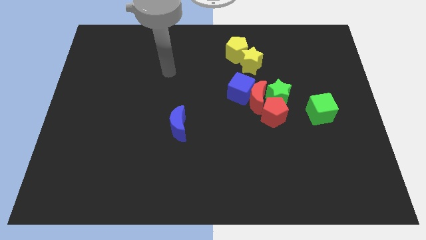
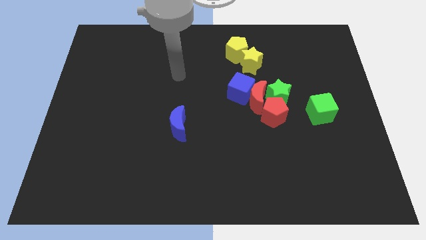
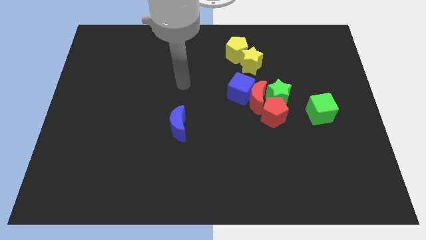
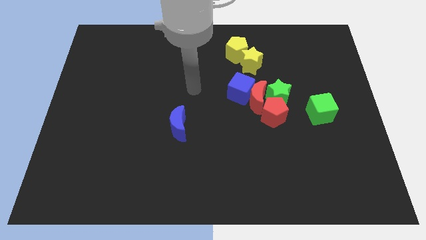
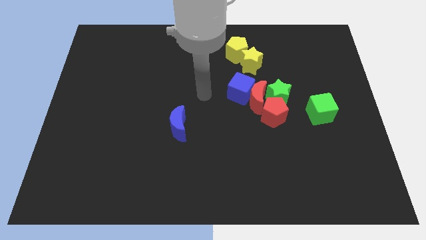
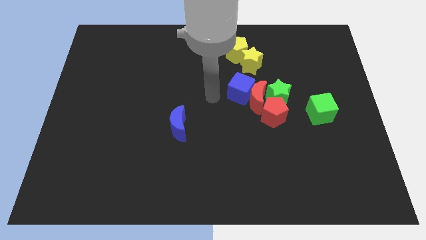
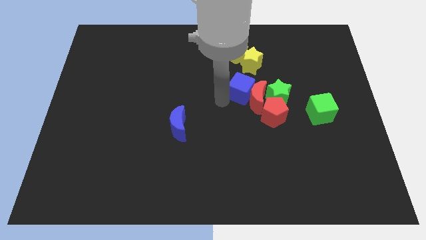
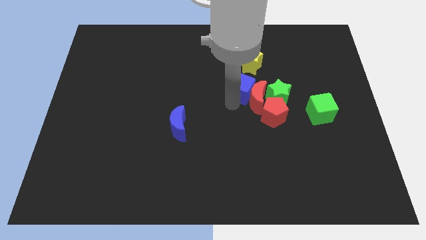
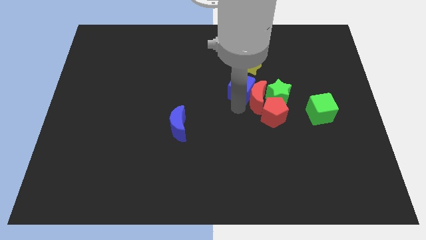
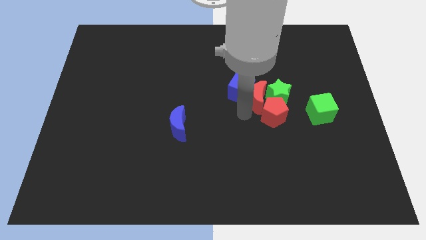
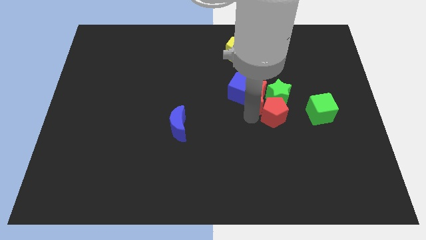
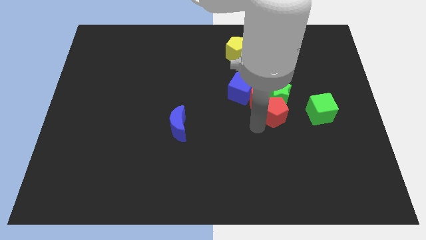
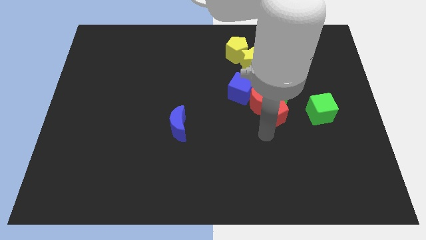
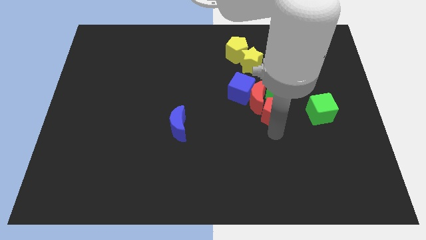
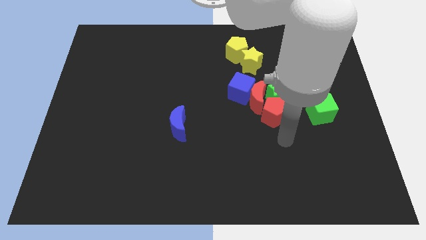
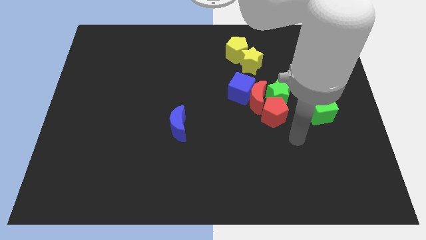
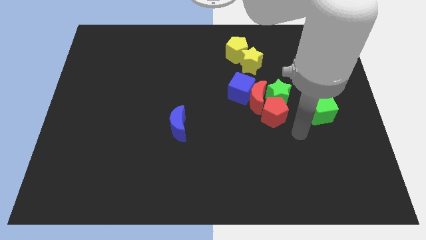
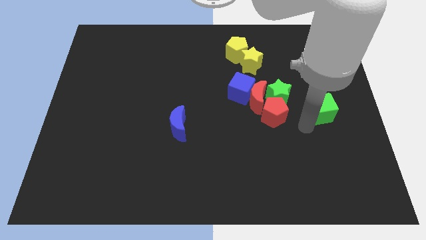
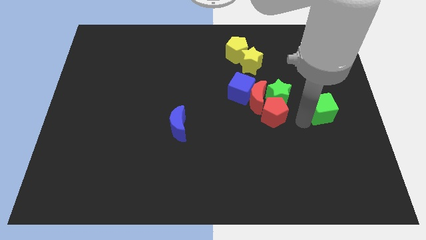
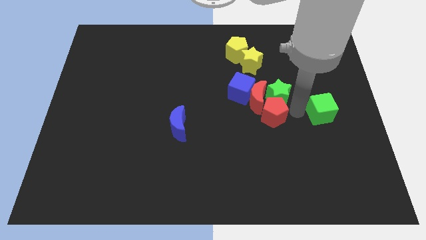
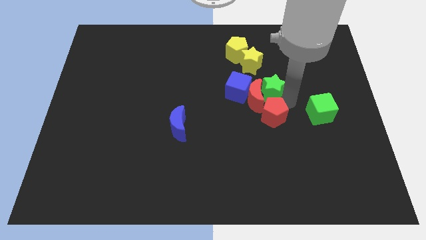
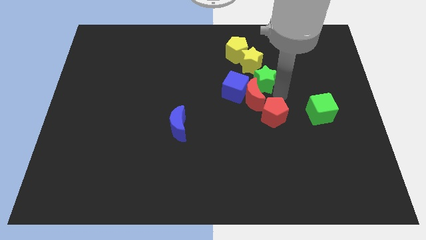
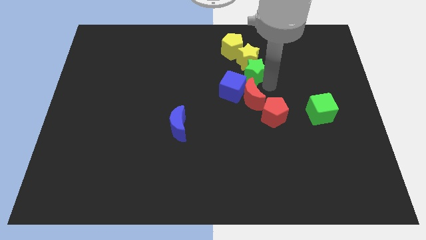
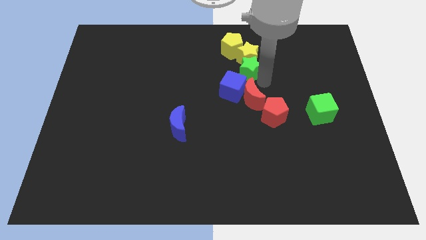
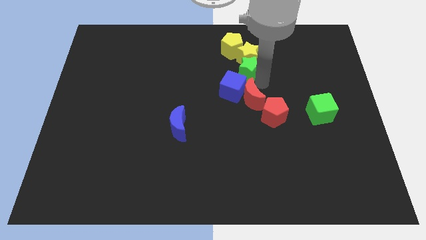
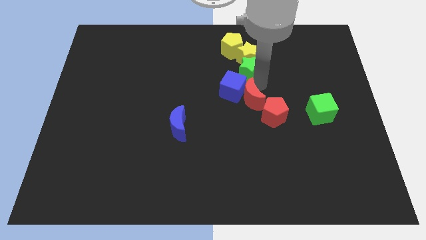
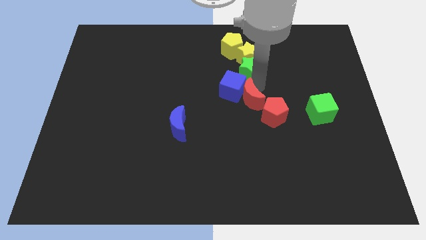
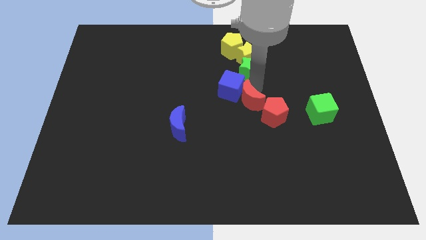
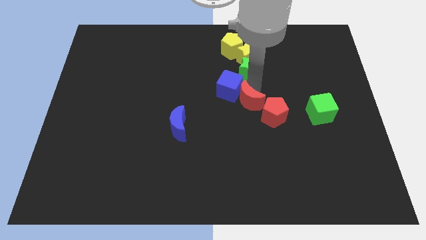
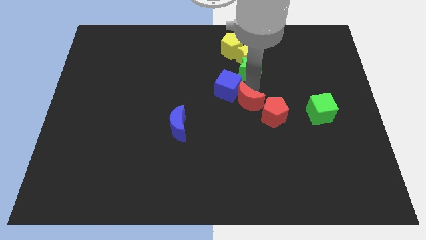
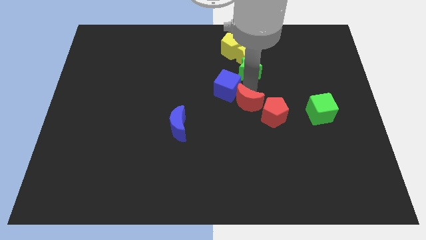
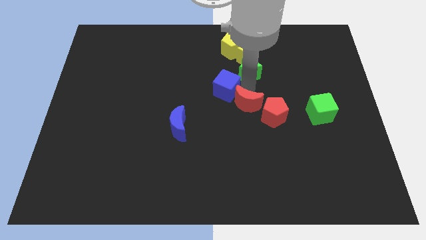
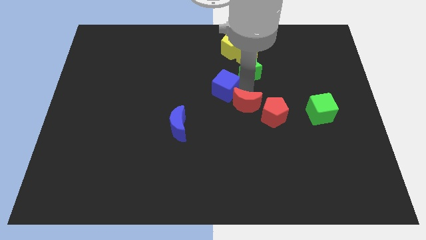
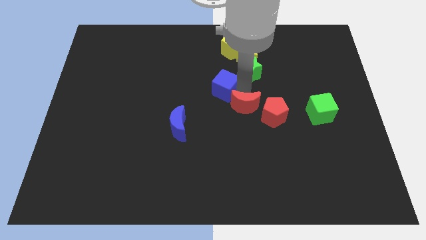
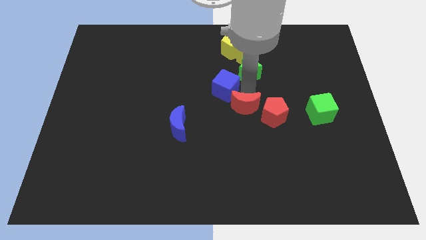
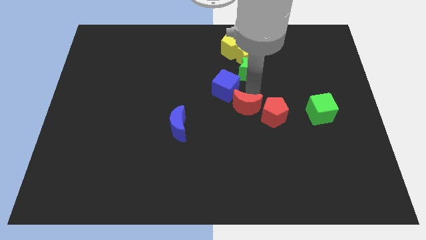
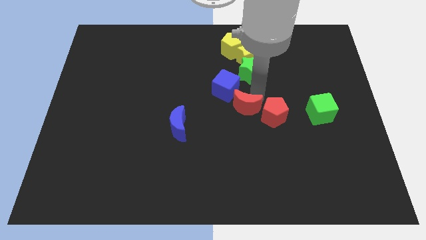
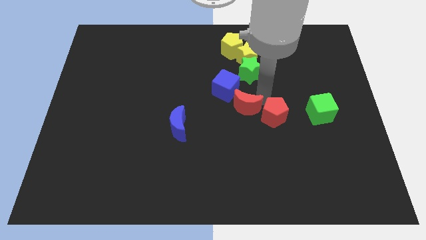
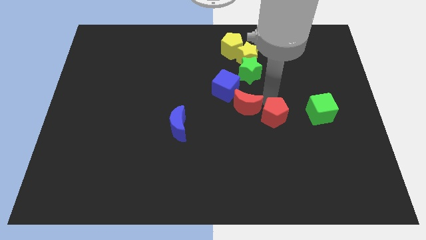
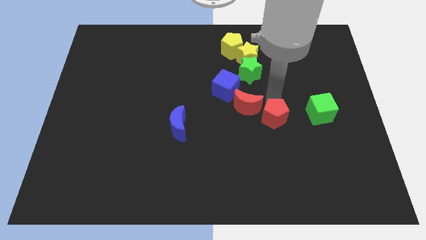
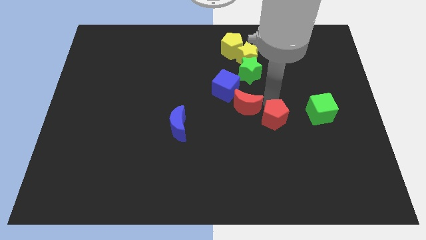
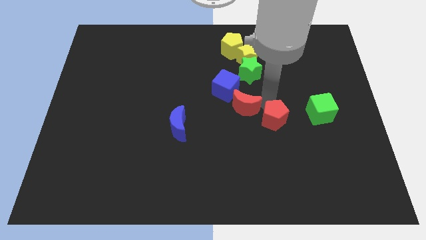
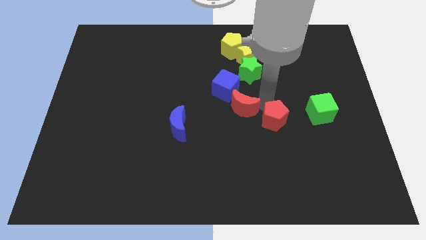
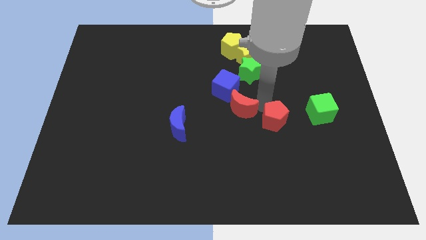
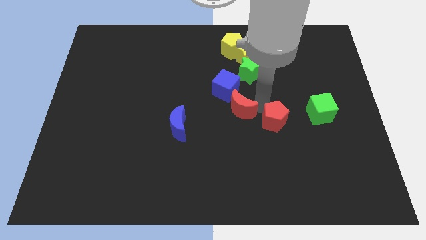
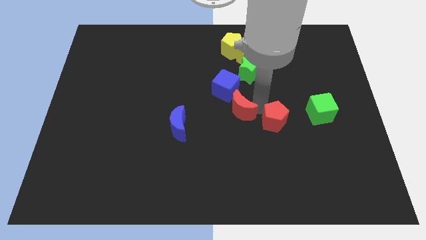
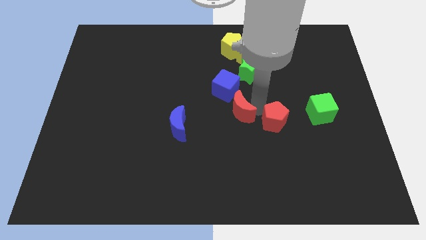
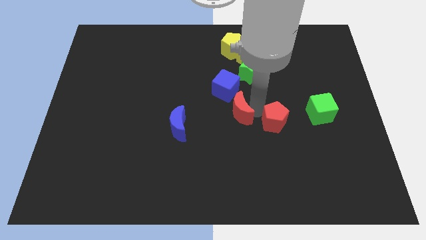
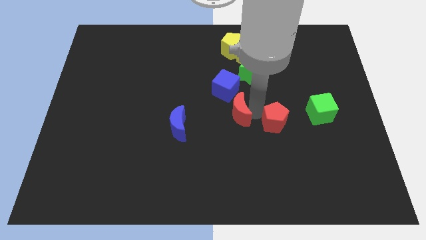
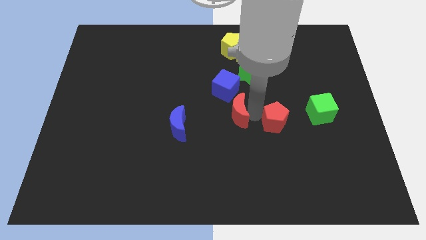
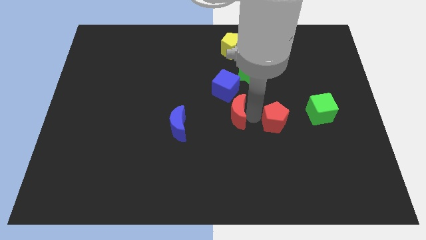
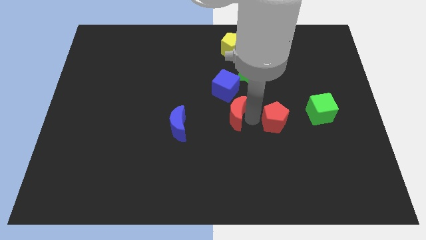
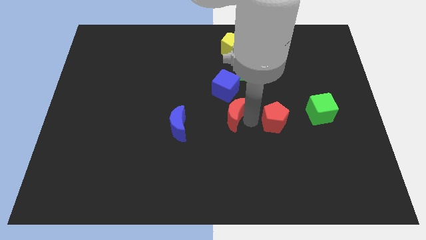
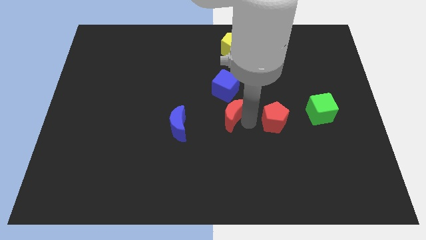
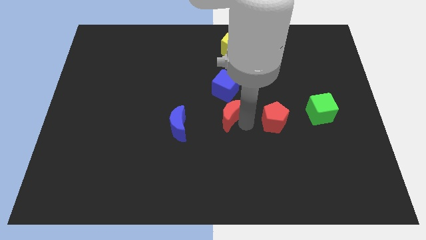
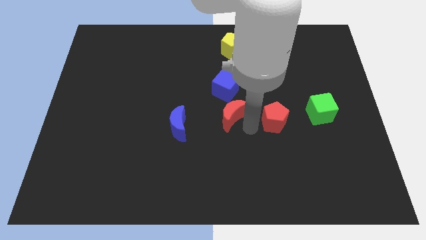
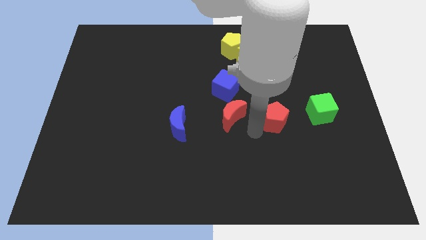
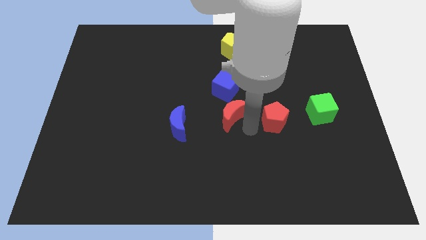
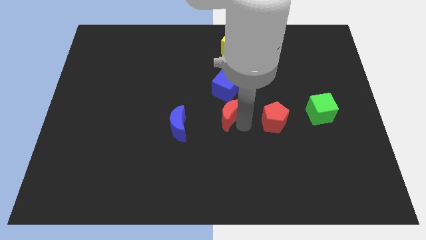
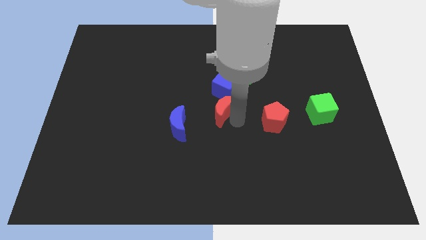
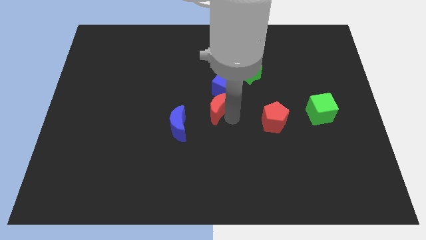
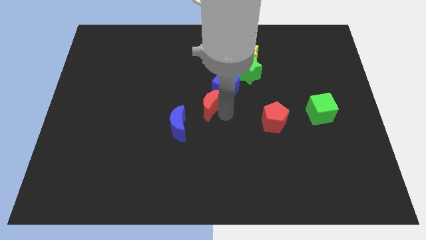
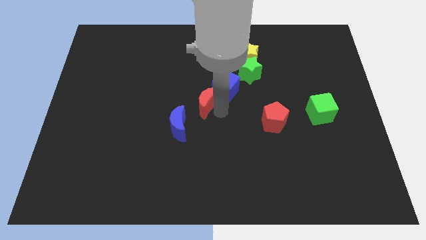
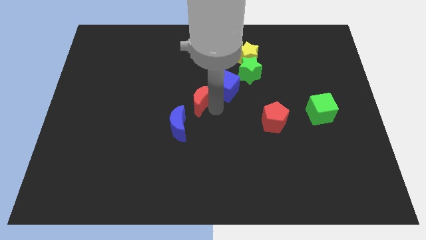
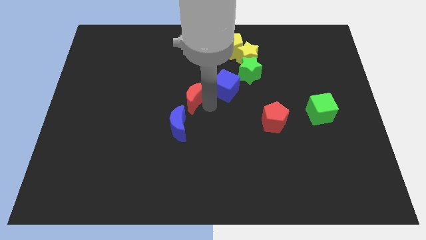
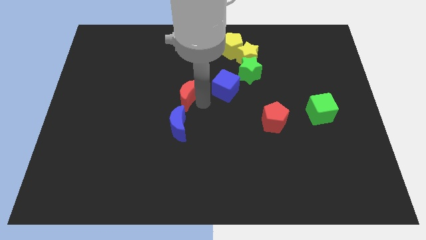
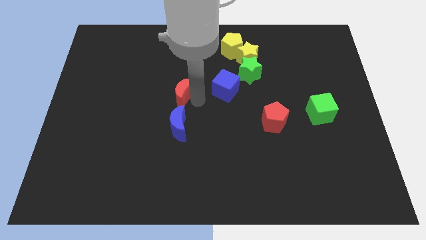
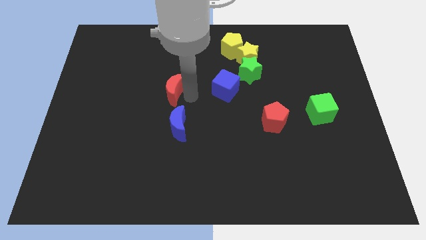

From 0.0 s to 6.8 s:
move the red moon left

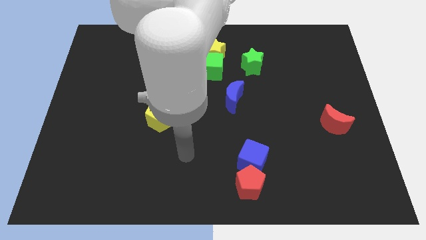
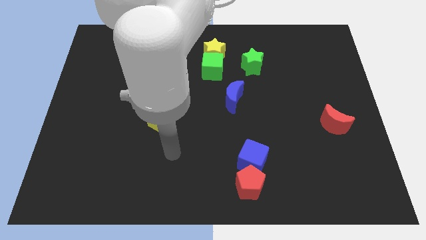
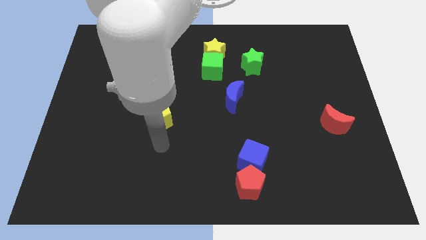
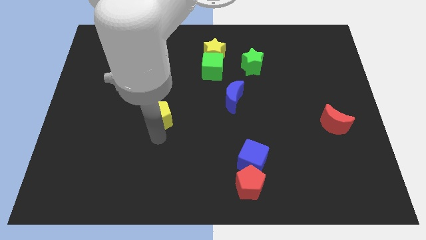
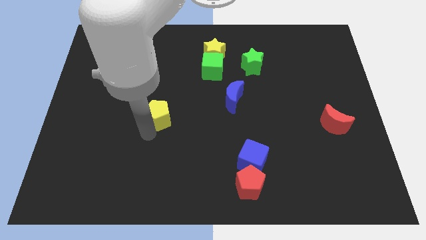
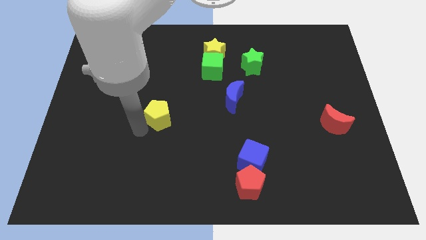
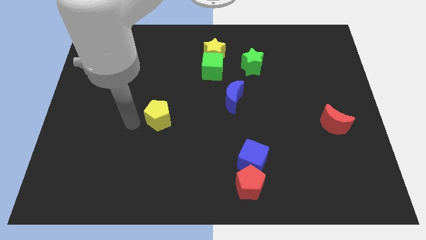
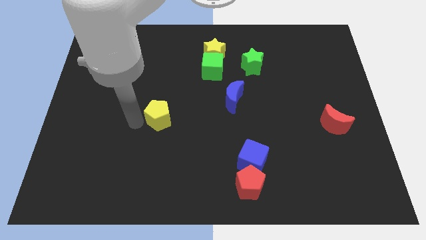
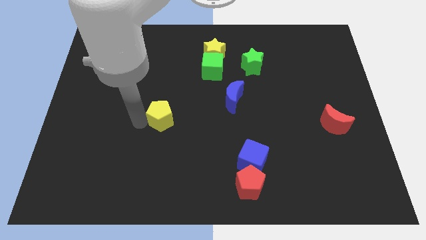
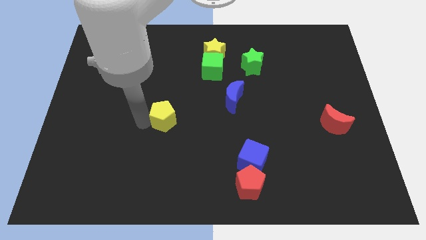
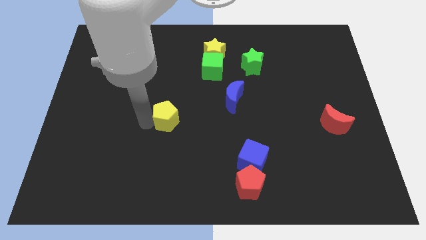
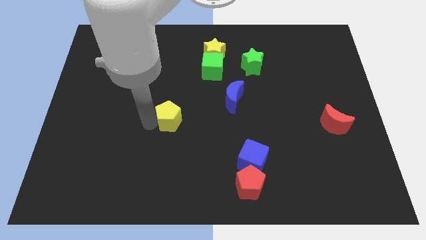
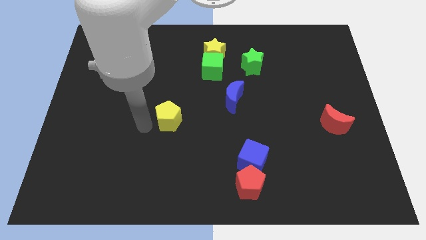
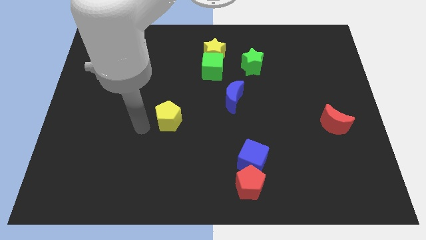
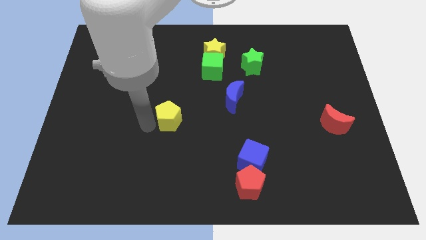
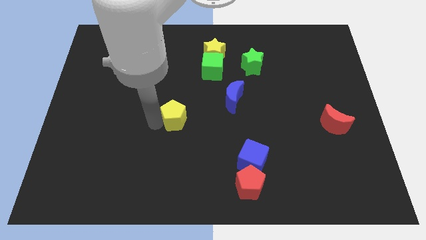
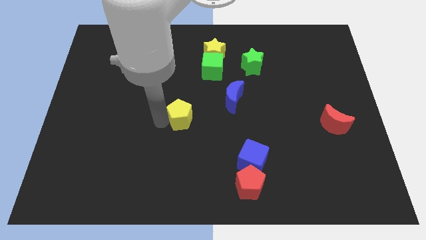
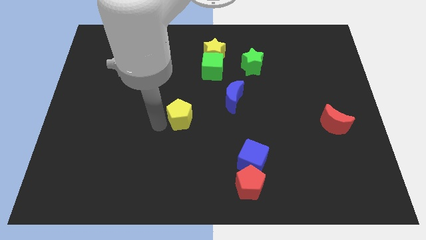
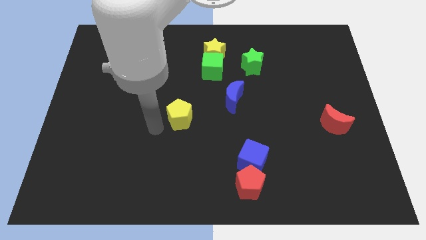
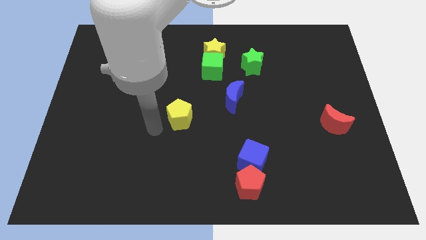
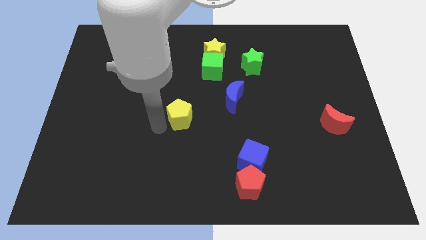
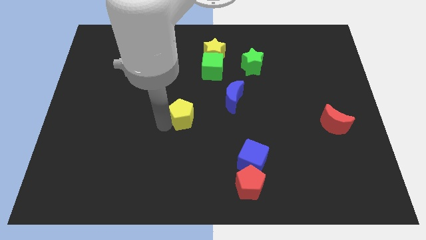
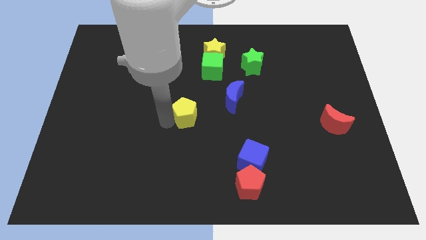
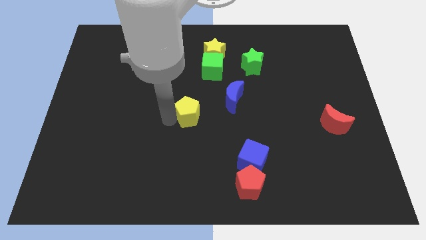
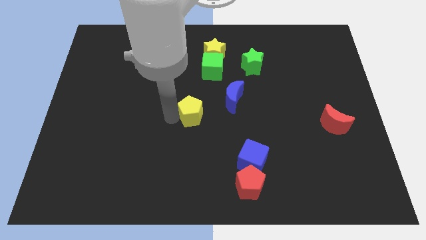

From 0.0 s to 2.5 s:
slightly slide the yellow pentagon to the right
